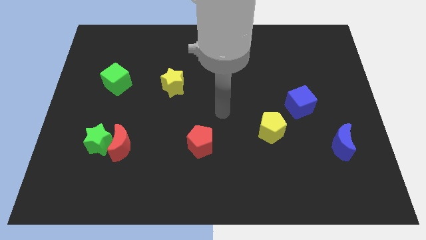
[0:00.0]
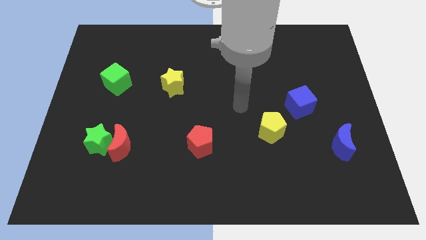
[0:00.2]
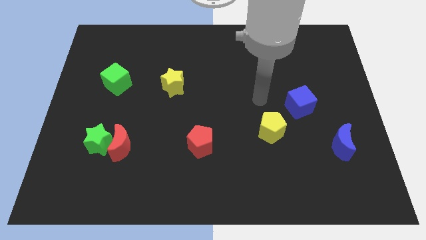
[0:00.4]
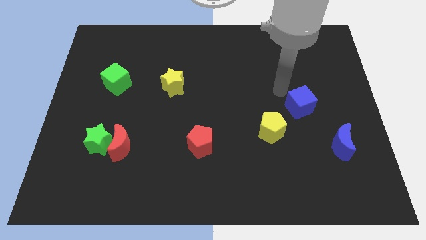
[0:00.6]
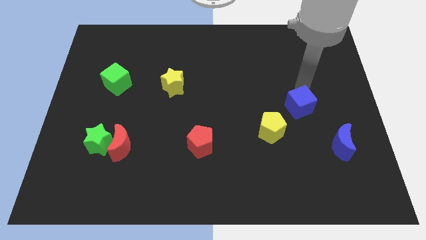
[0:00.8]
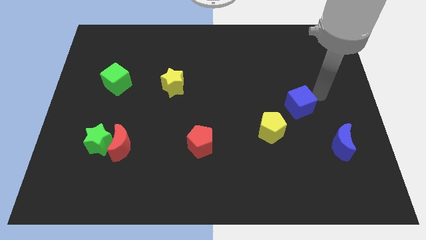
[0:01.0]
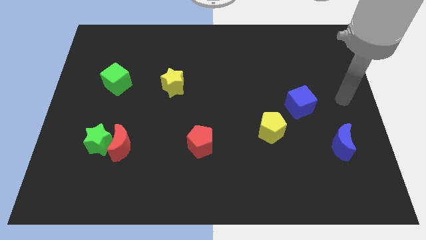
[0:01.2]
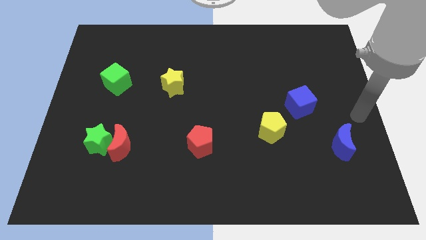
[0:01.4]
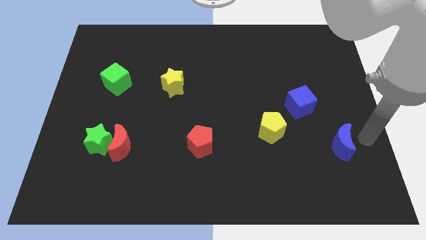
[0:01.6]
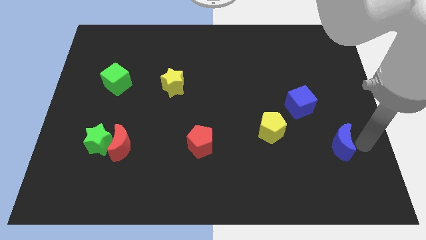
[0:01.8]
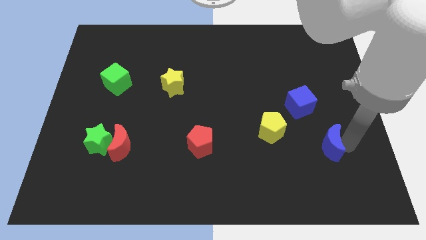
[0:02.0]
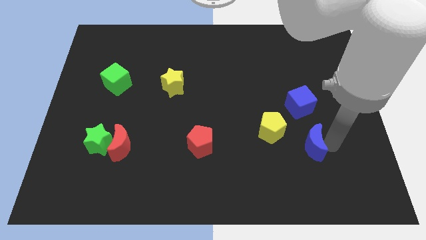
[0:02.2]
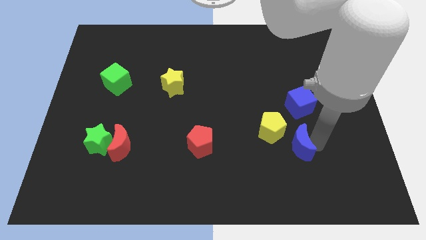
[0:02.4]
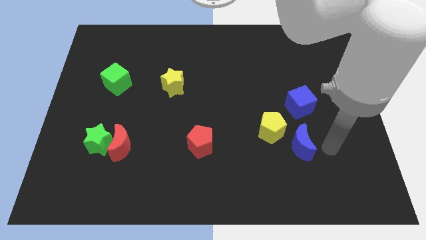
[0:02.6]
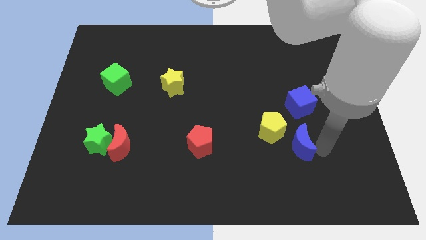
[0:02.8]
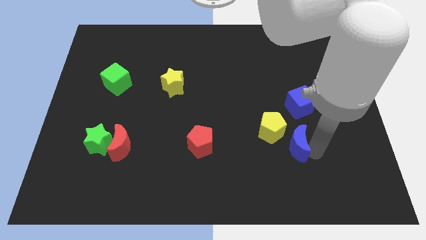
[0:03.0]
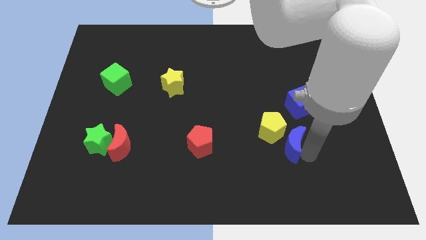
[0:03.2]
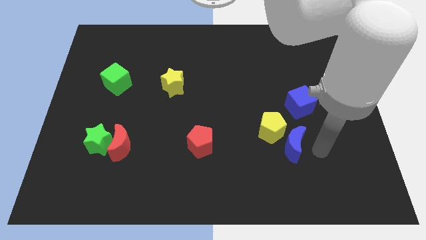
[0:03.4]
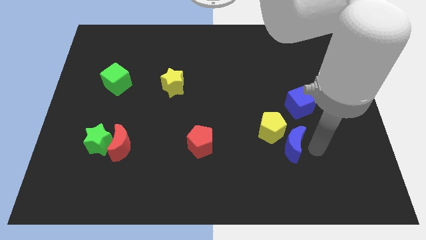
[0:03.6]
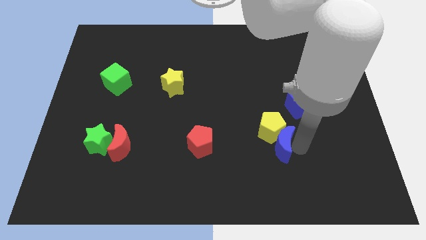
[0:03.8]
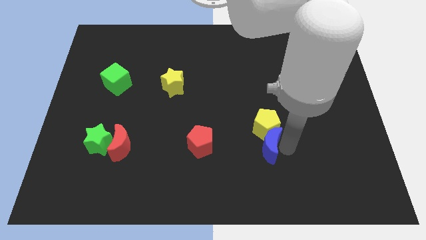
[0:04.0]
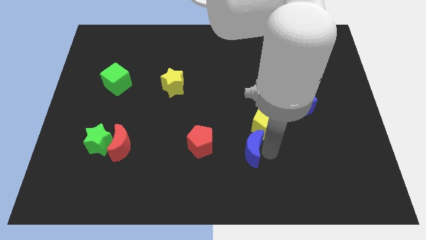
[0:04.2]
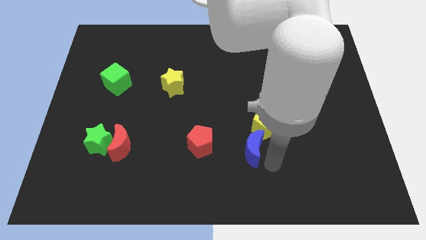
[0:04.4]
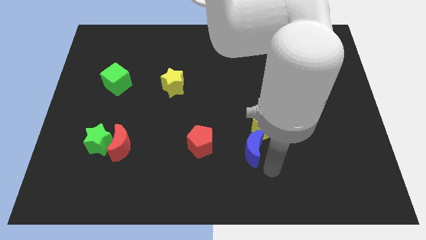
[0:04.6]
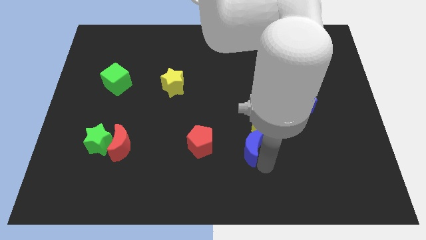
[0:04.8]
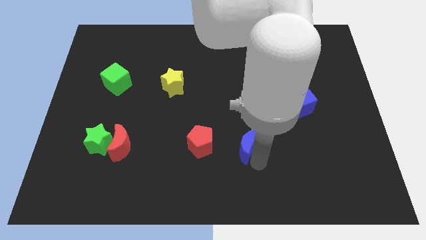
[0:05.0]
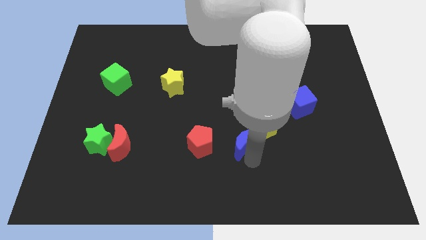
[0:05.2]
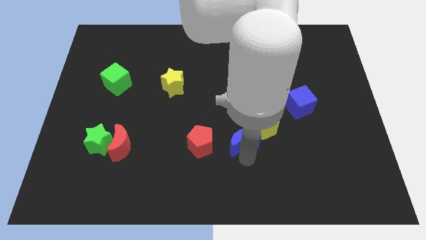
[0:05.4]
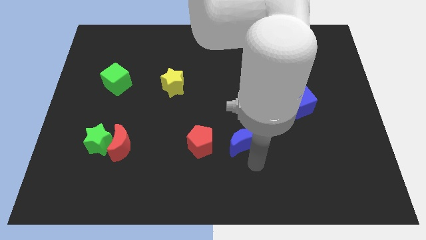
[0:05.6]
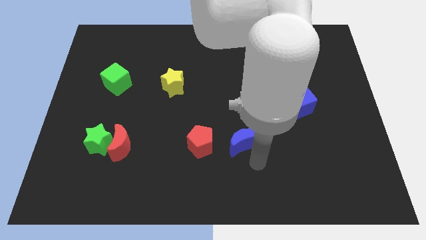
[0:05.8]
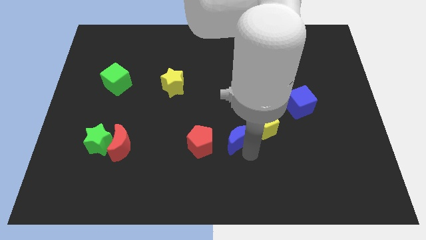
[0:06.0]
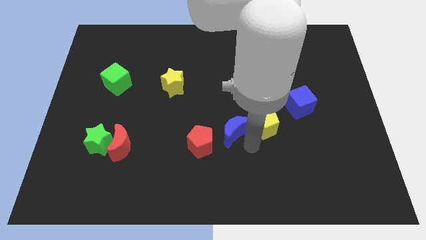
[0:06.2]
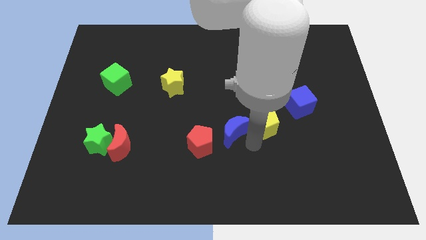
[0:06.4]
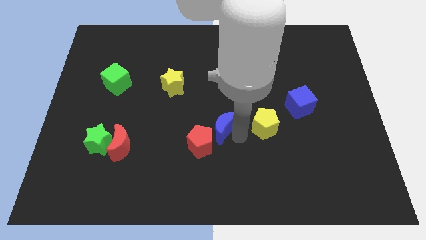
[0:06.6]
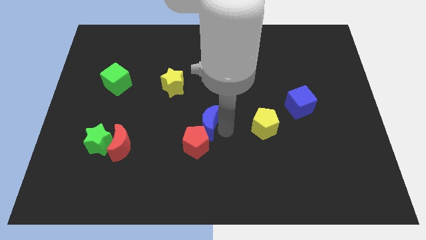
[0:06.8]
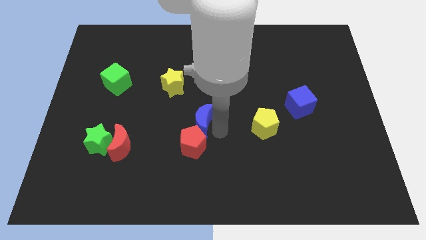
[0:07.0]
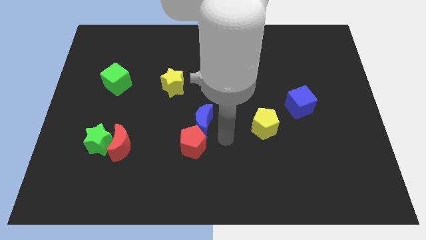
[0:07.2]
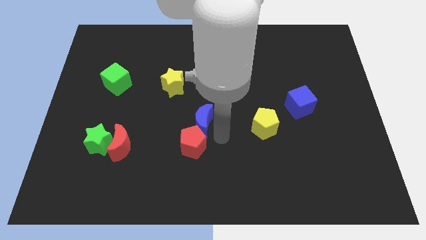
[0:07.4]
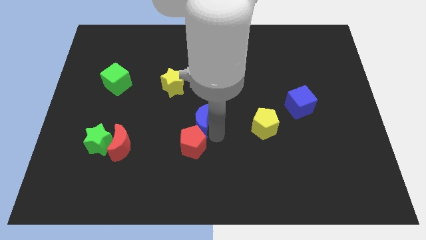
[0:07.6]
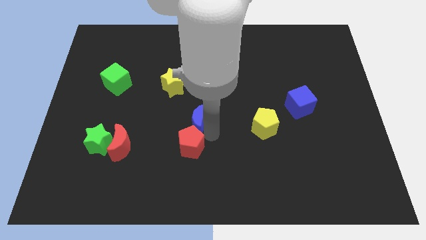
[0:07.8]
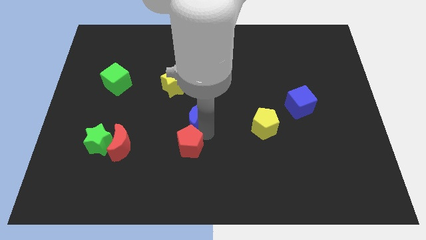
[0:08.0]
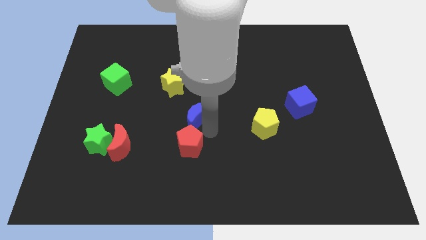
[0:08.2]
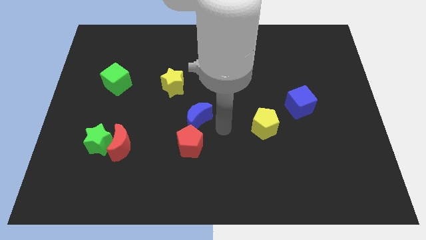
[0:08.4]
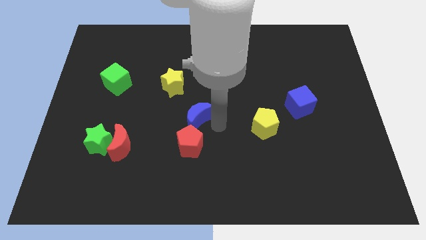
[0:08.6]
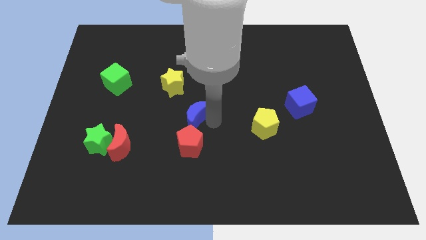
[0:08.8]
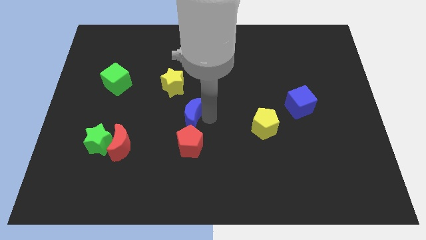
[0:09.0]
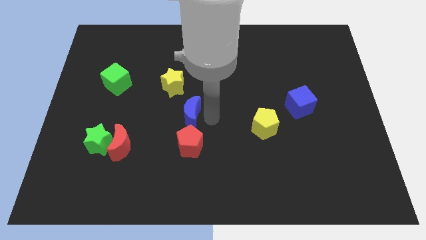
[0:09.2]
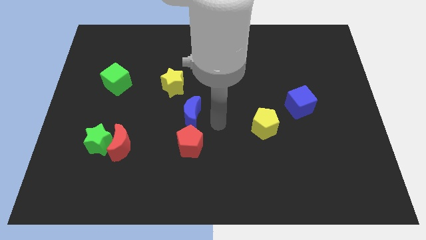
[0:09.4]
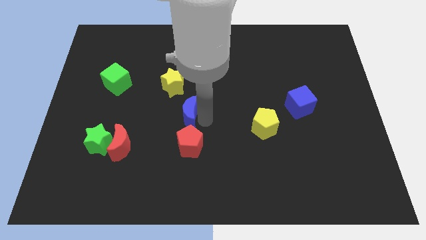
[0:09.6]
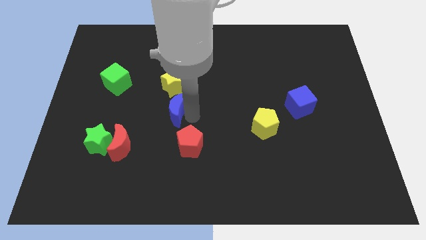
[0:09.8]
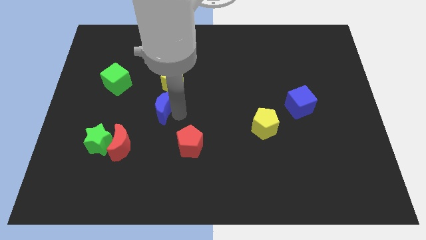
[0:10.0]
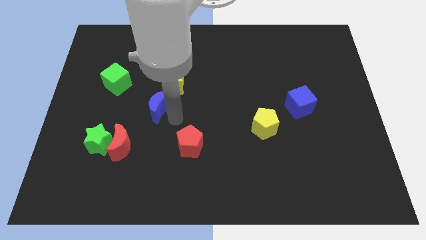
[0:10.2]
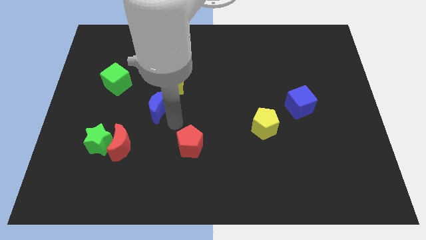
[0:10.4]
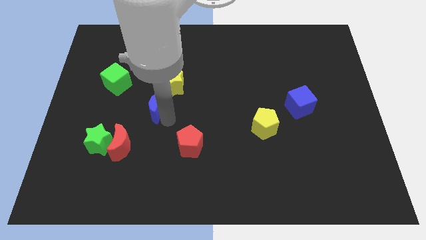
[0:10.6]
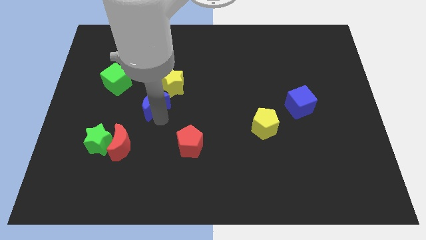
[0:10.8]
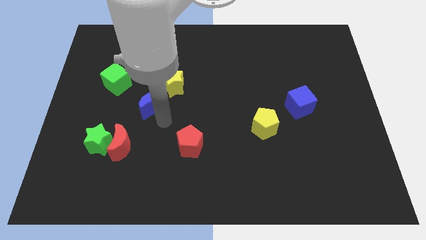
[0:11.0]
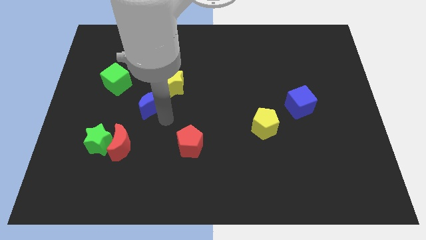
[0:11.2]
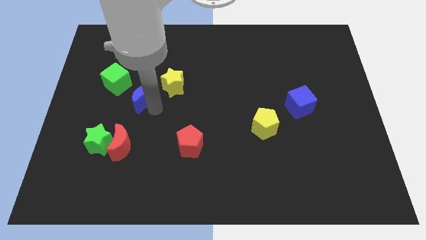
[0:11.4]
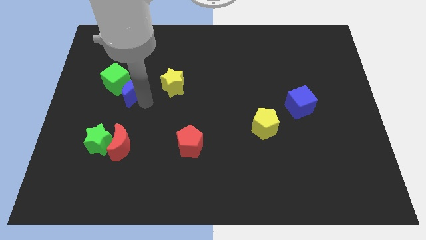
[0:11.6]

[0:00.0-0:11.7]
move the blue moon towards the green cube

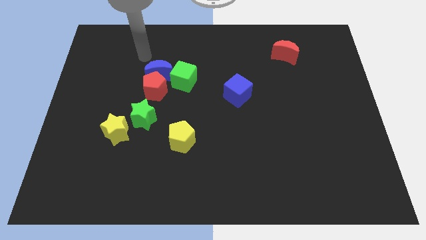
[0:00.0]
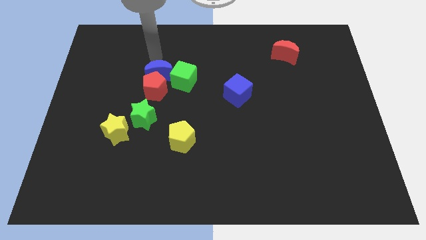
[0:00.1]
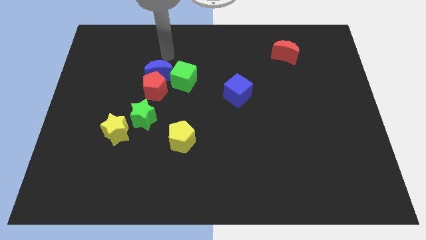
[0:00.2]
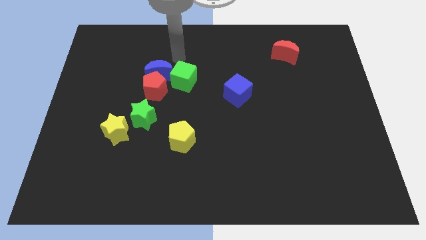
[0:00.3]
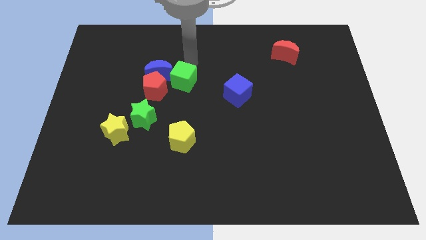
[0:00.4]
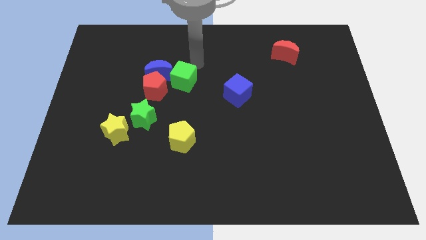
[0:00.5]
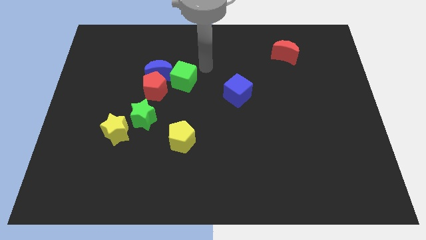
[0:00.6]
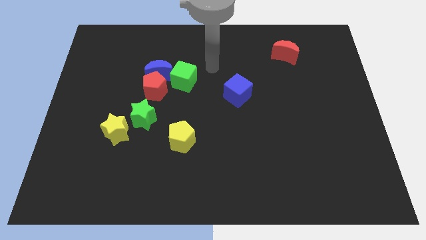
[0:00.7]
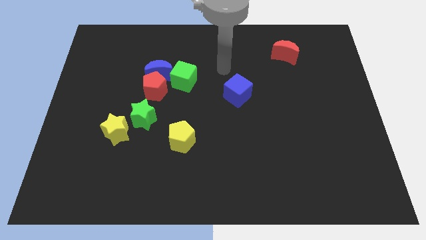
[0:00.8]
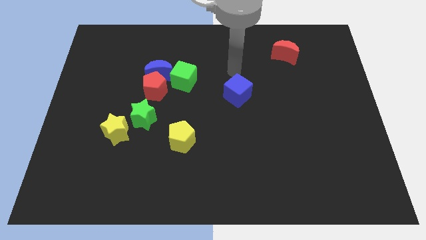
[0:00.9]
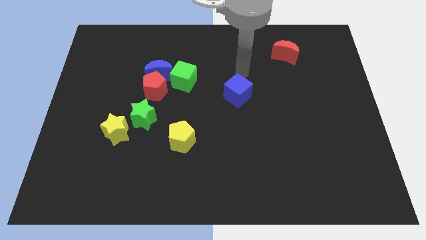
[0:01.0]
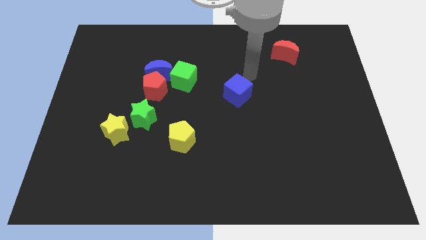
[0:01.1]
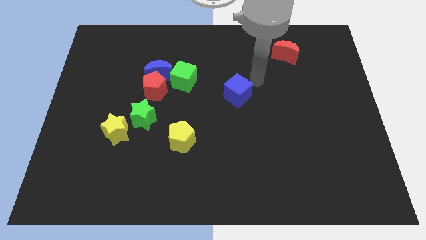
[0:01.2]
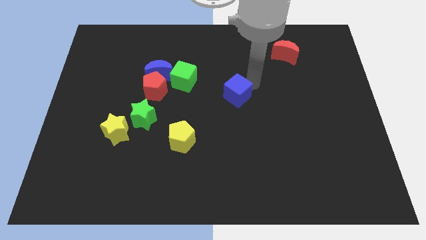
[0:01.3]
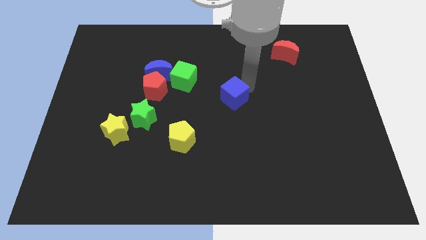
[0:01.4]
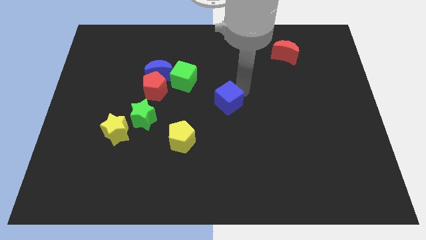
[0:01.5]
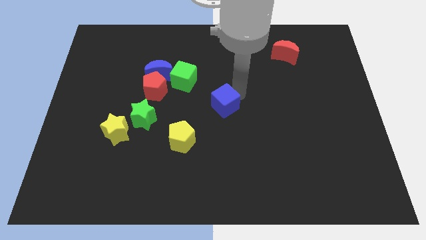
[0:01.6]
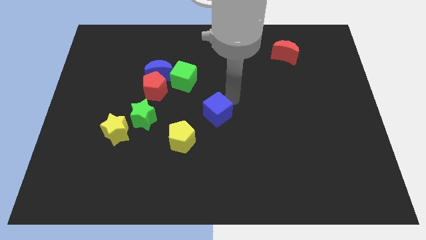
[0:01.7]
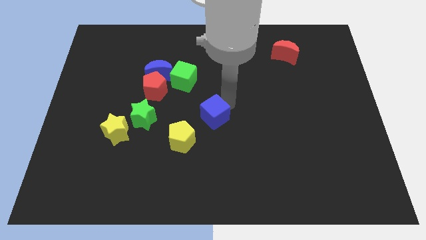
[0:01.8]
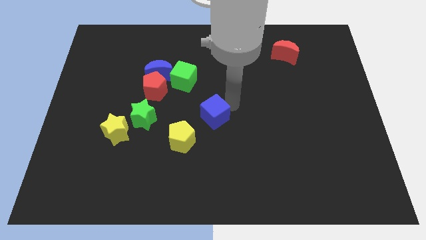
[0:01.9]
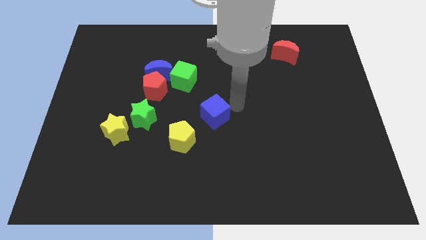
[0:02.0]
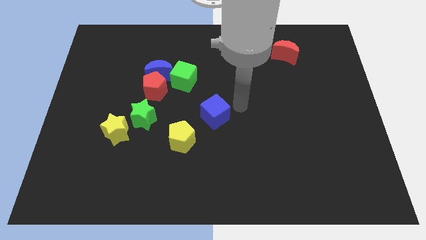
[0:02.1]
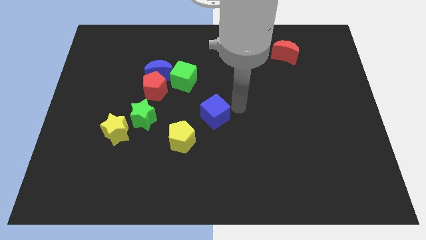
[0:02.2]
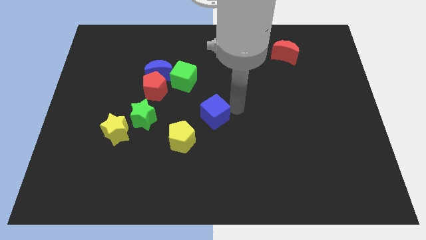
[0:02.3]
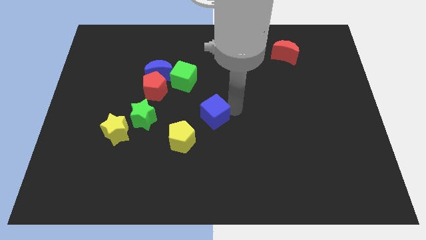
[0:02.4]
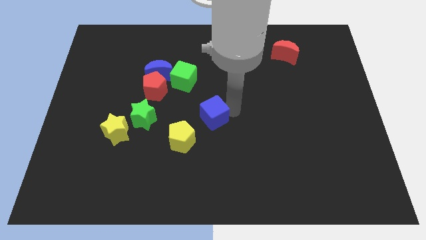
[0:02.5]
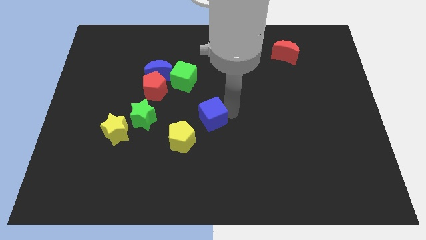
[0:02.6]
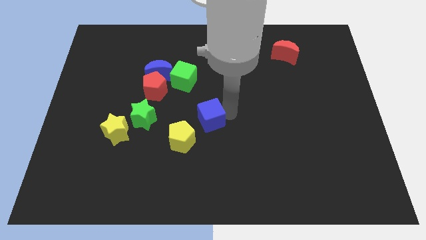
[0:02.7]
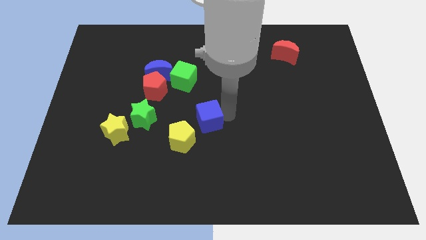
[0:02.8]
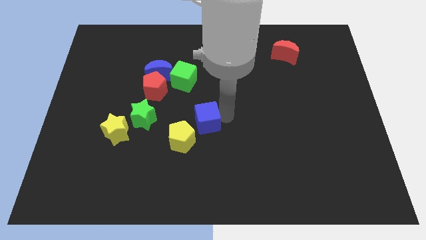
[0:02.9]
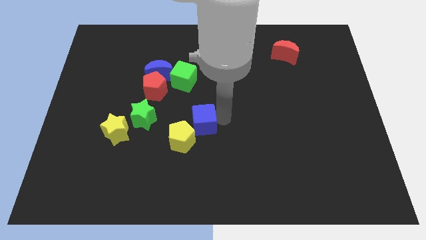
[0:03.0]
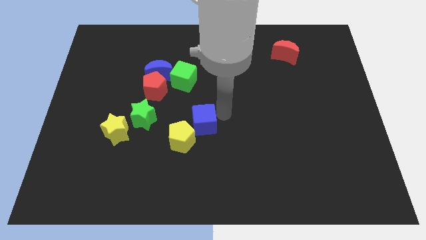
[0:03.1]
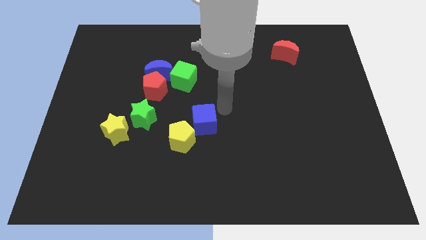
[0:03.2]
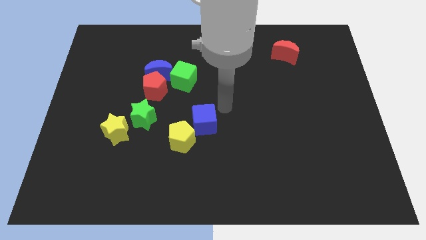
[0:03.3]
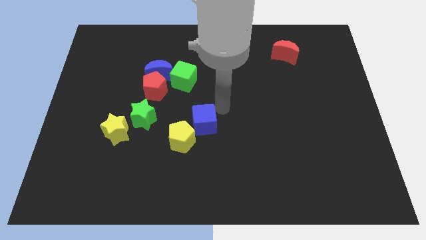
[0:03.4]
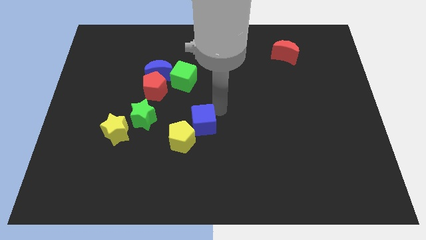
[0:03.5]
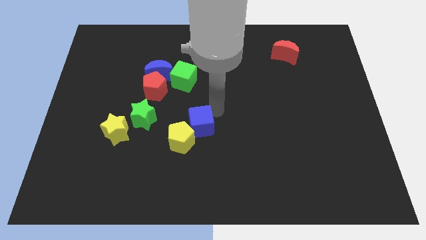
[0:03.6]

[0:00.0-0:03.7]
put the blue cube to the yellow pentagon
